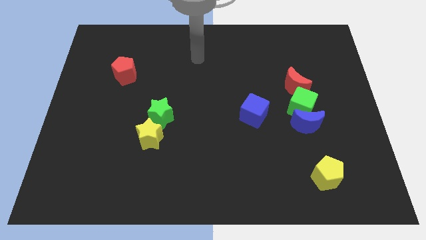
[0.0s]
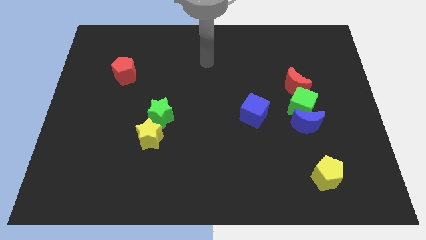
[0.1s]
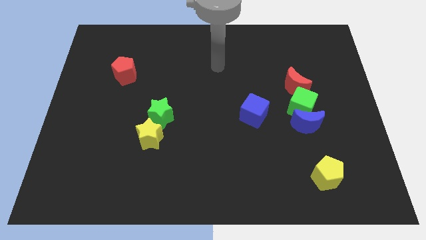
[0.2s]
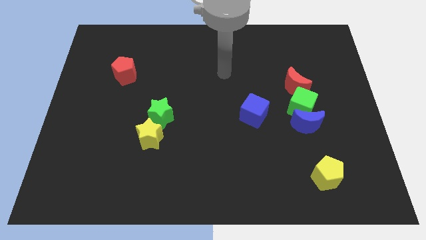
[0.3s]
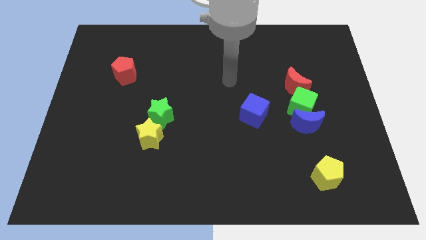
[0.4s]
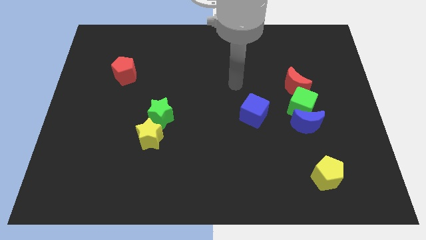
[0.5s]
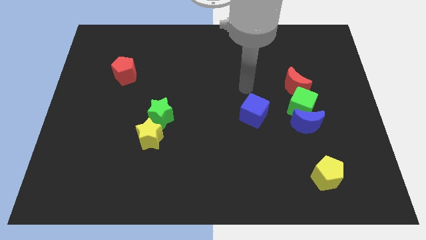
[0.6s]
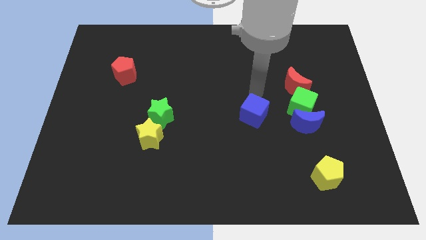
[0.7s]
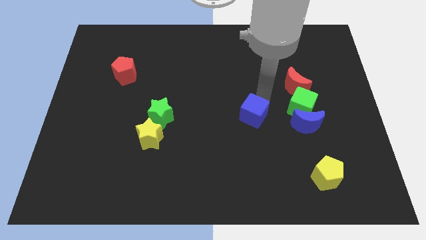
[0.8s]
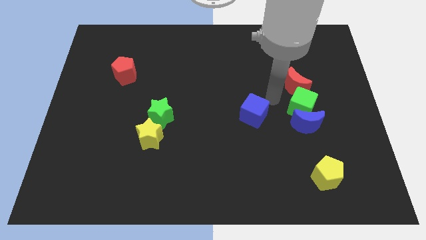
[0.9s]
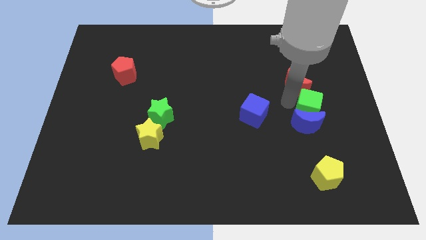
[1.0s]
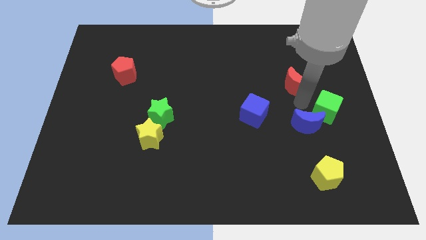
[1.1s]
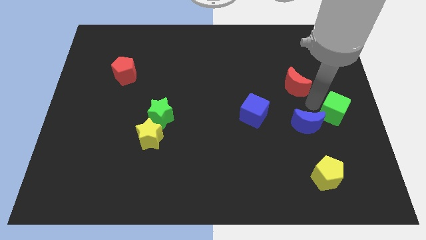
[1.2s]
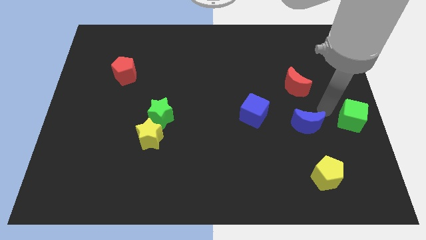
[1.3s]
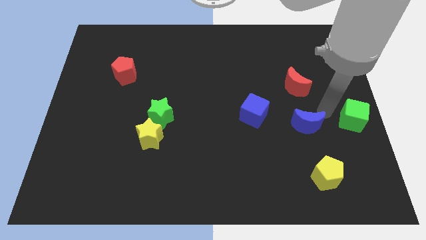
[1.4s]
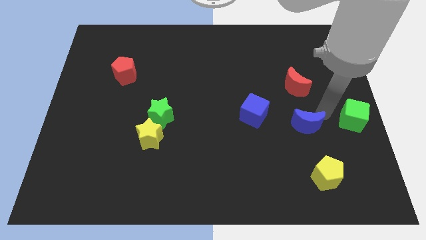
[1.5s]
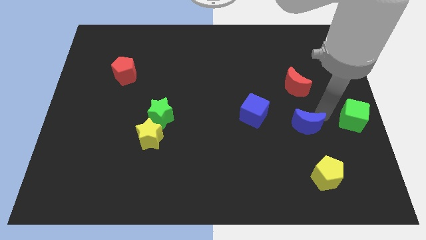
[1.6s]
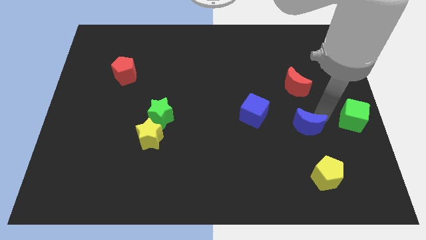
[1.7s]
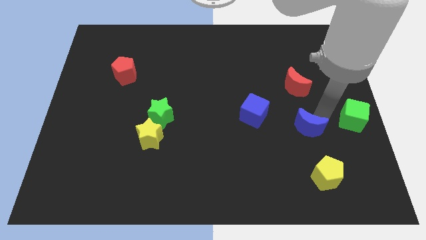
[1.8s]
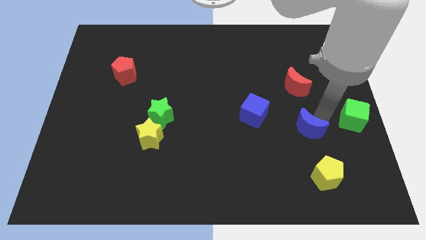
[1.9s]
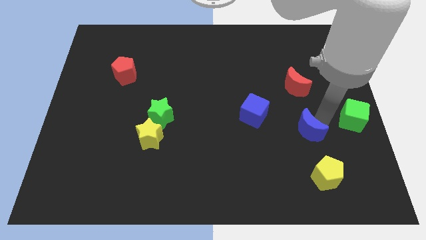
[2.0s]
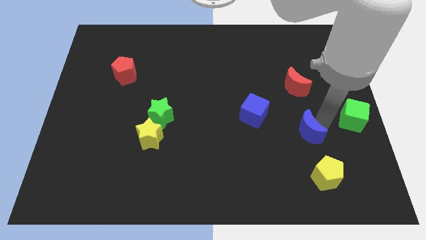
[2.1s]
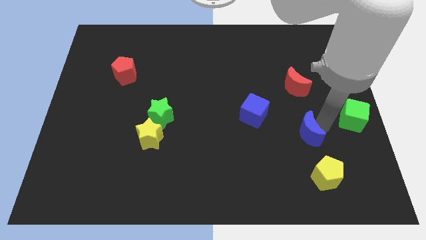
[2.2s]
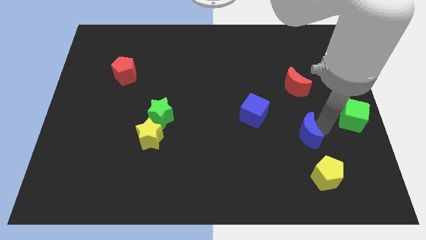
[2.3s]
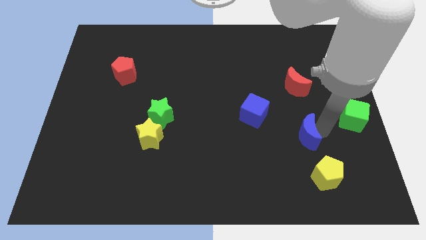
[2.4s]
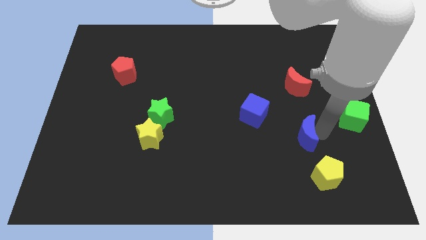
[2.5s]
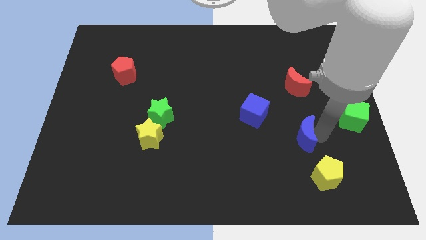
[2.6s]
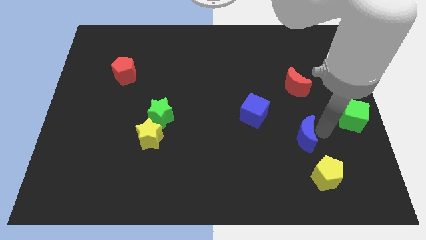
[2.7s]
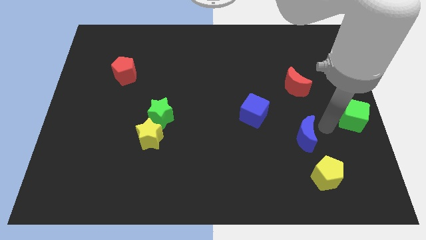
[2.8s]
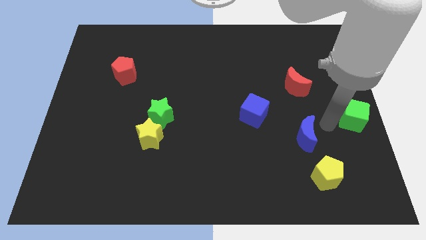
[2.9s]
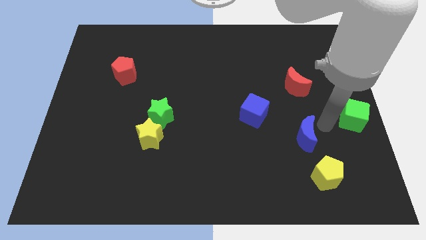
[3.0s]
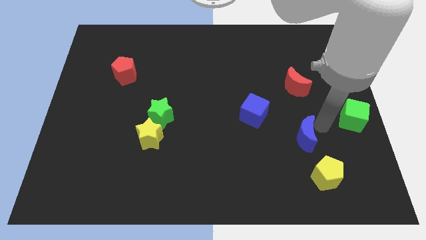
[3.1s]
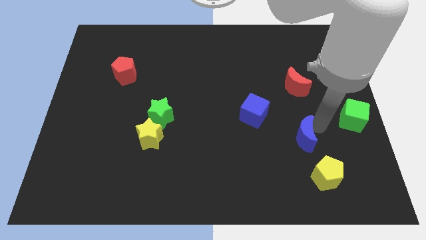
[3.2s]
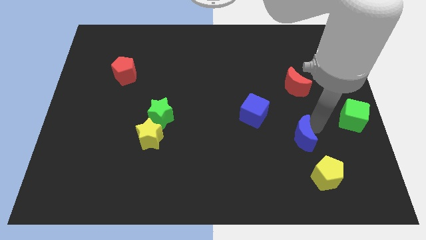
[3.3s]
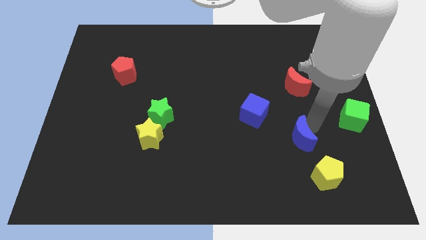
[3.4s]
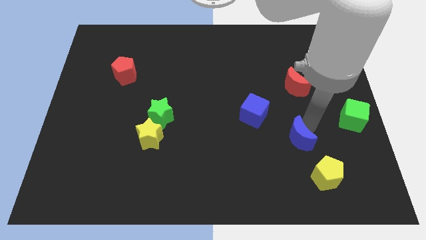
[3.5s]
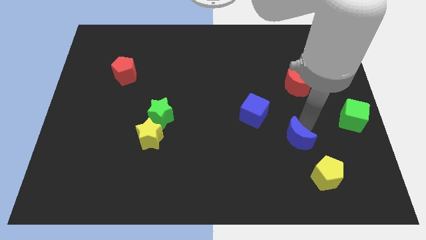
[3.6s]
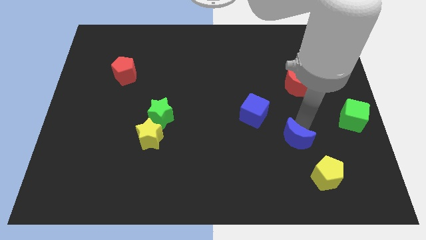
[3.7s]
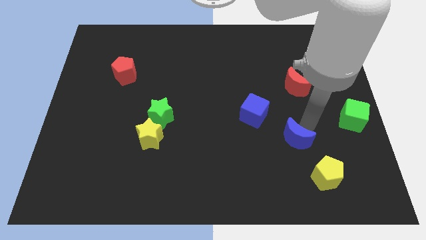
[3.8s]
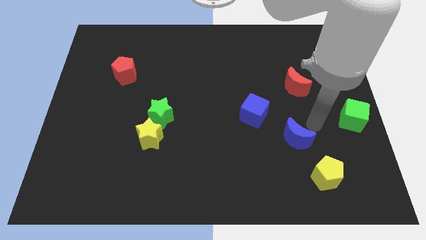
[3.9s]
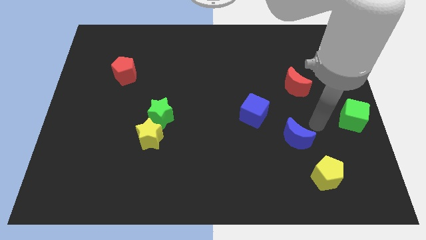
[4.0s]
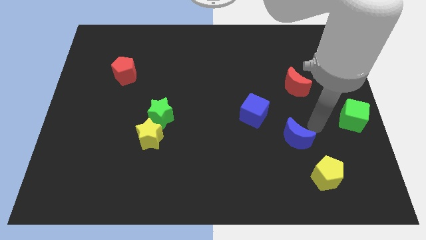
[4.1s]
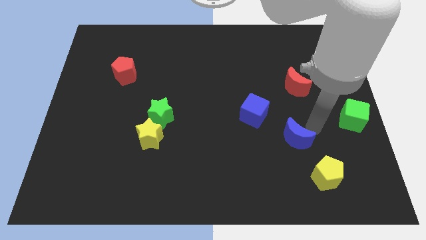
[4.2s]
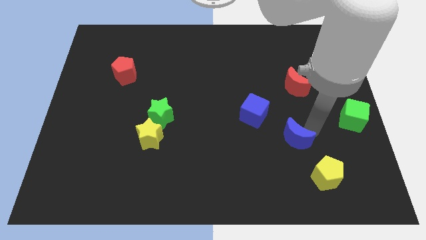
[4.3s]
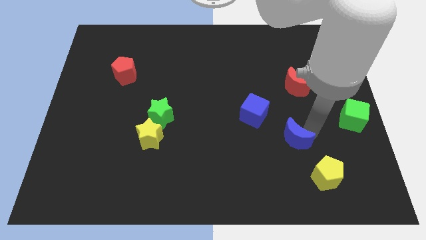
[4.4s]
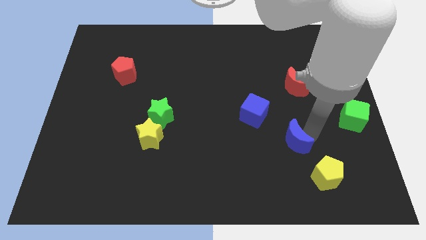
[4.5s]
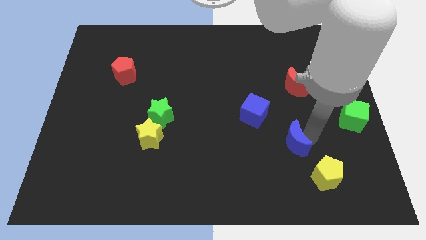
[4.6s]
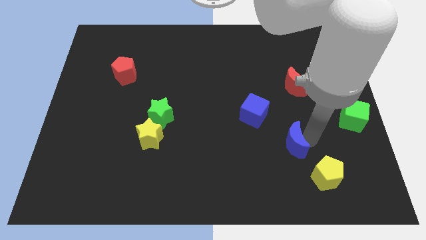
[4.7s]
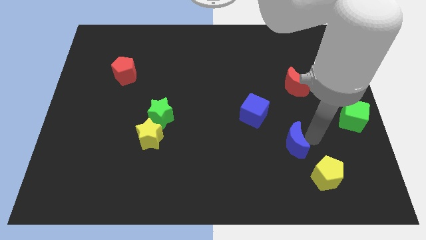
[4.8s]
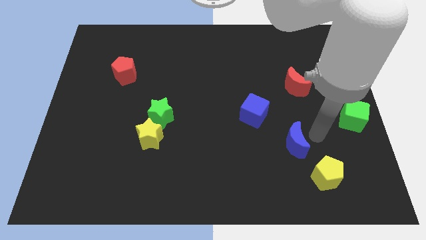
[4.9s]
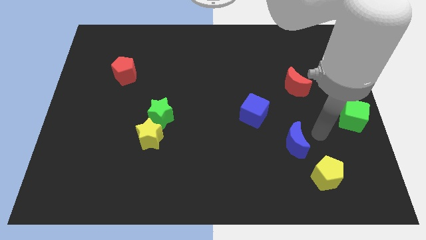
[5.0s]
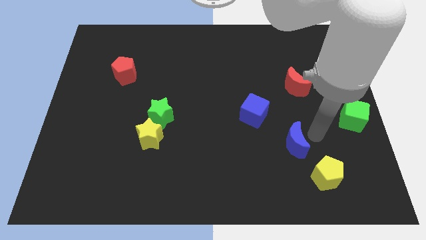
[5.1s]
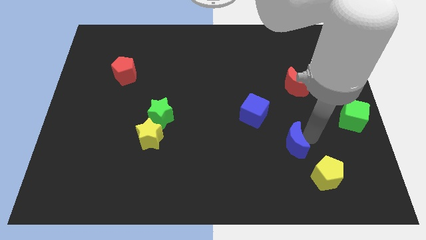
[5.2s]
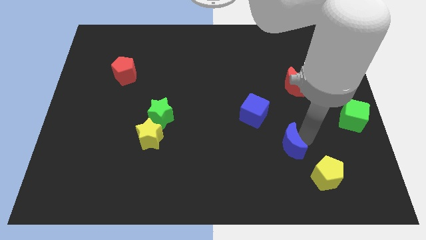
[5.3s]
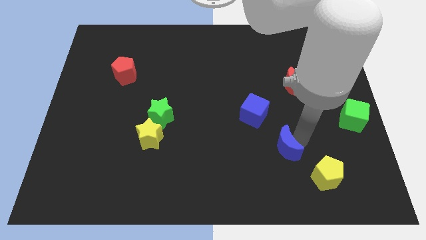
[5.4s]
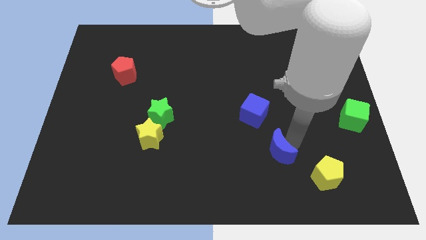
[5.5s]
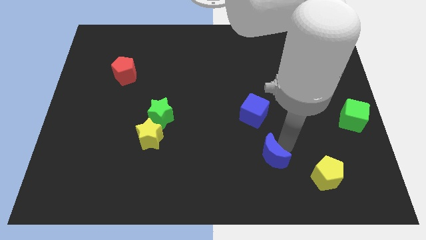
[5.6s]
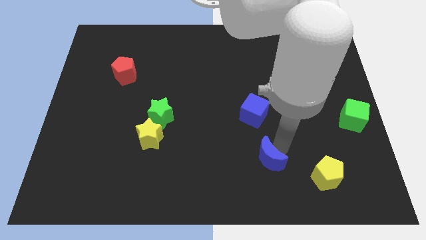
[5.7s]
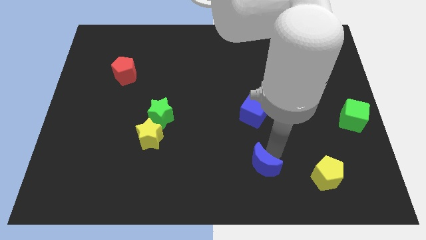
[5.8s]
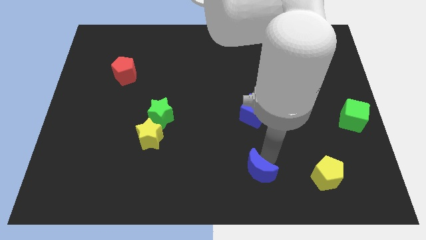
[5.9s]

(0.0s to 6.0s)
slide the blue moon to the bottom

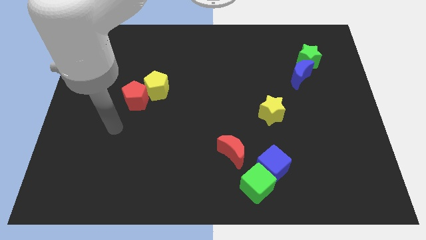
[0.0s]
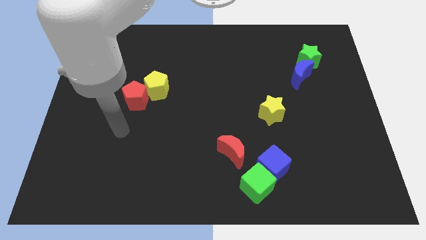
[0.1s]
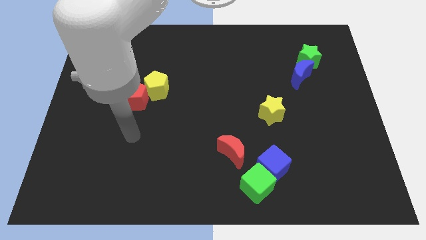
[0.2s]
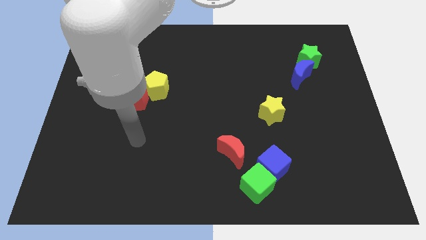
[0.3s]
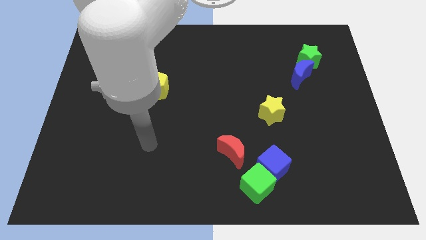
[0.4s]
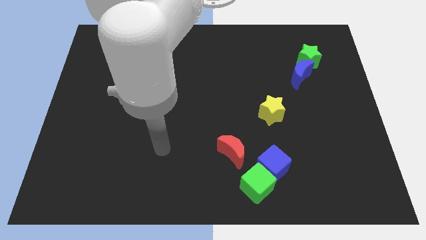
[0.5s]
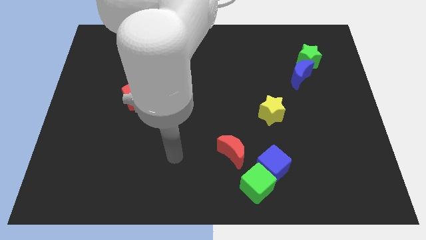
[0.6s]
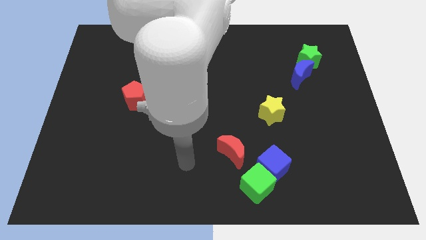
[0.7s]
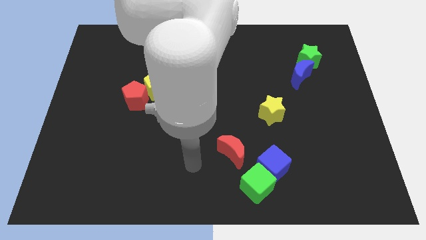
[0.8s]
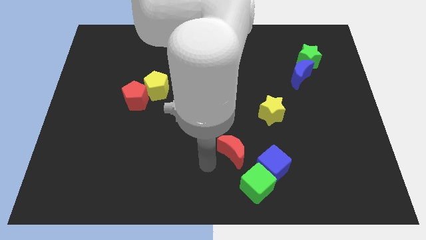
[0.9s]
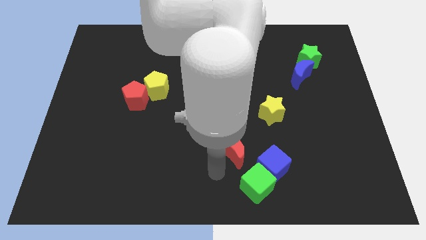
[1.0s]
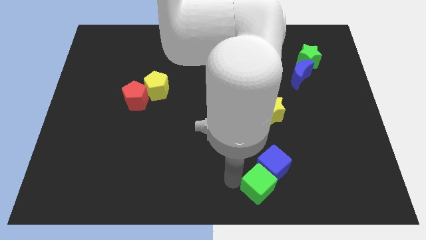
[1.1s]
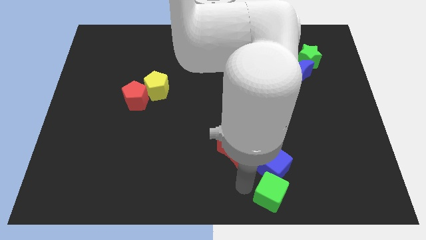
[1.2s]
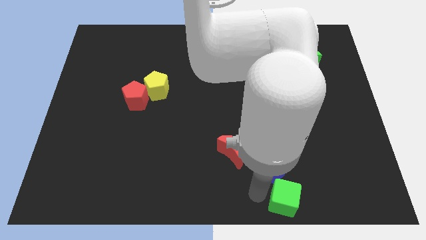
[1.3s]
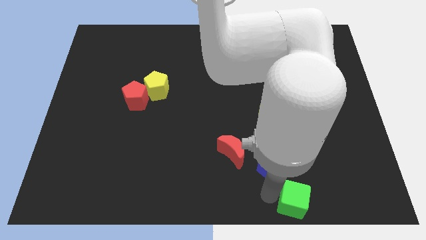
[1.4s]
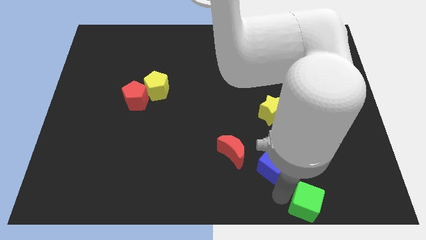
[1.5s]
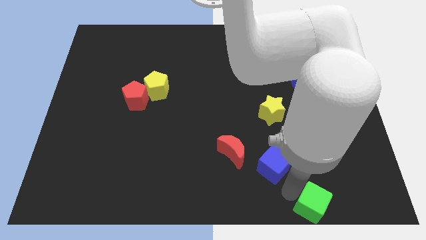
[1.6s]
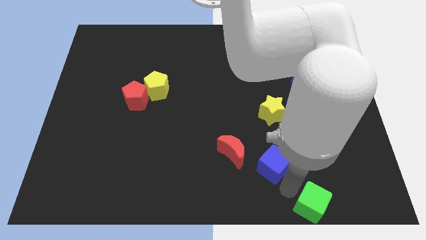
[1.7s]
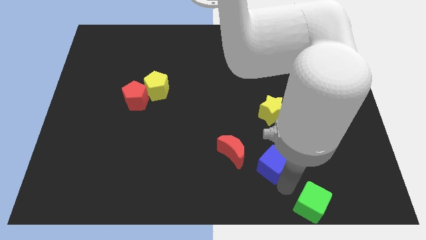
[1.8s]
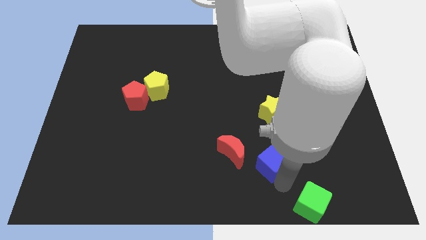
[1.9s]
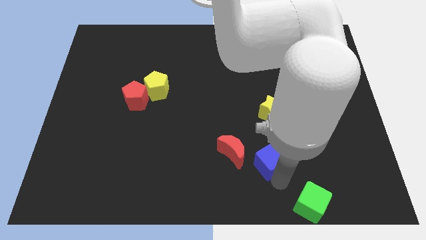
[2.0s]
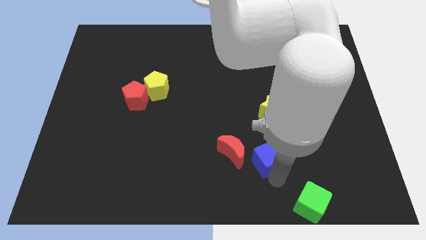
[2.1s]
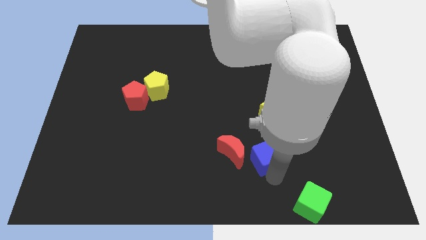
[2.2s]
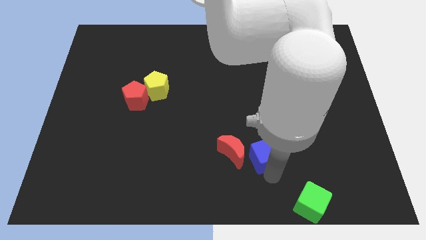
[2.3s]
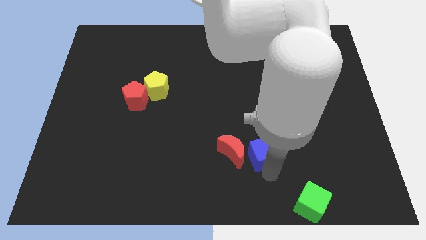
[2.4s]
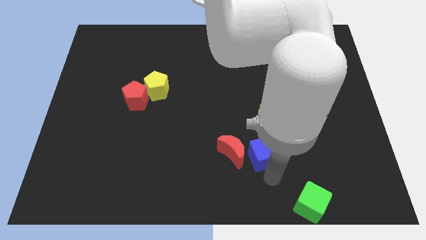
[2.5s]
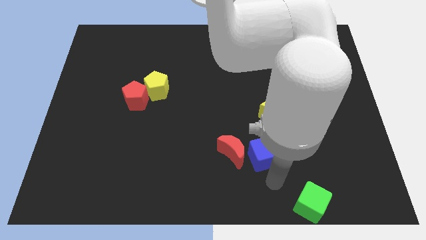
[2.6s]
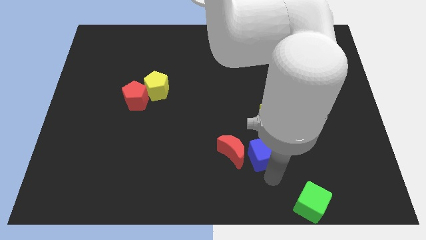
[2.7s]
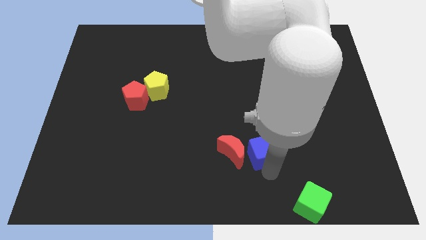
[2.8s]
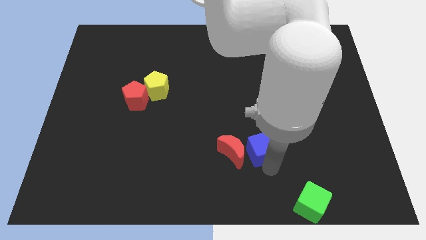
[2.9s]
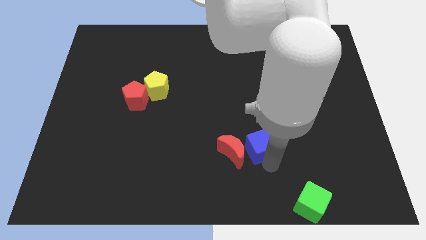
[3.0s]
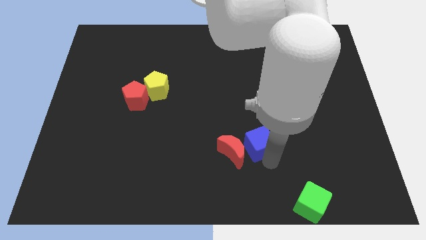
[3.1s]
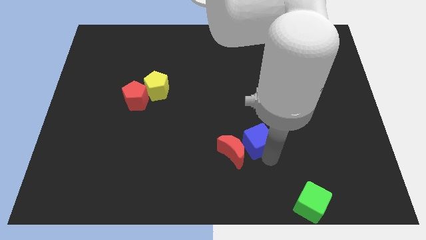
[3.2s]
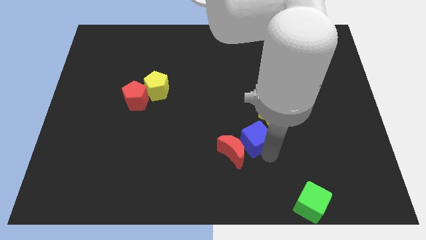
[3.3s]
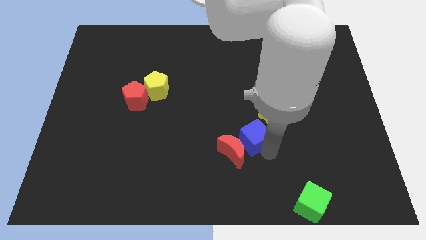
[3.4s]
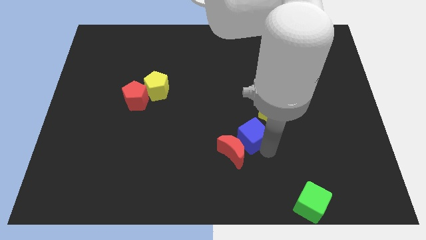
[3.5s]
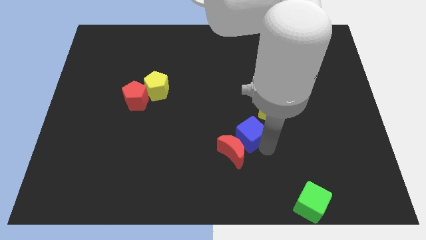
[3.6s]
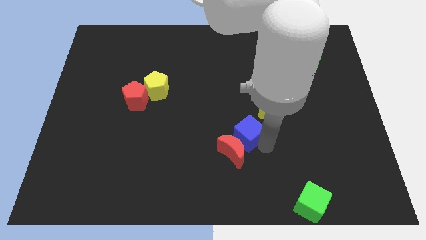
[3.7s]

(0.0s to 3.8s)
slide the blue cube to the center of the board
